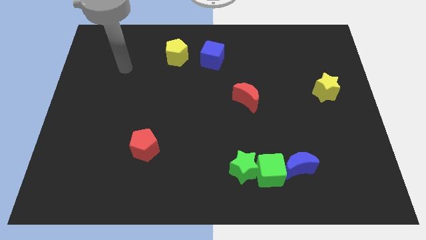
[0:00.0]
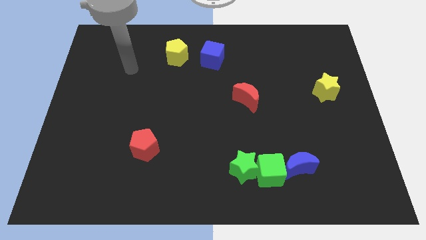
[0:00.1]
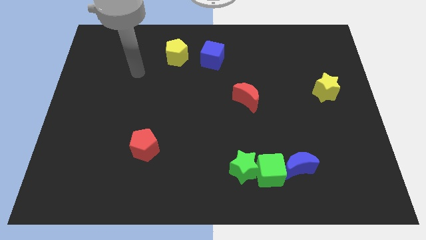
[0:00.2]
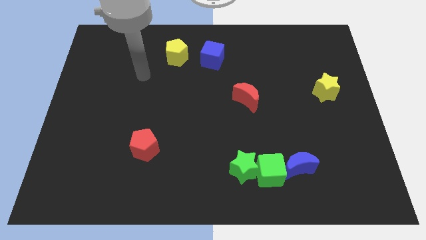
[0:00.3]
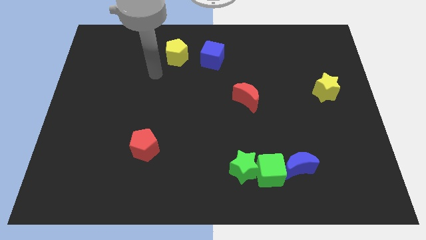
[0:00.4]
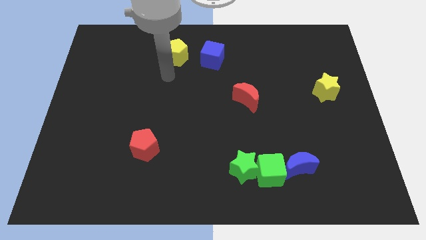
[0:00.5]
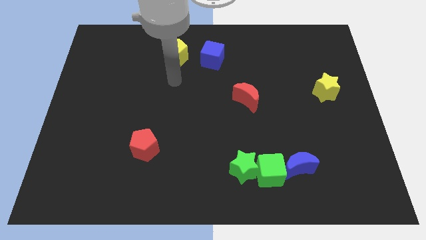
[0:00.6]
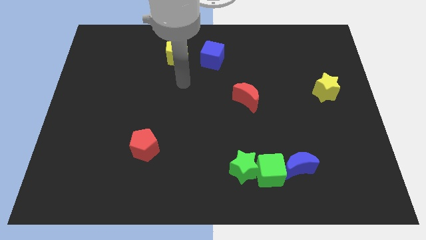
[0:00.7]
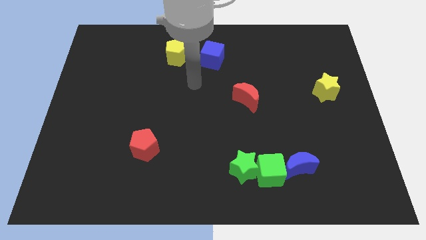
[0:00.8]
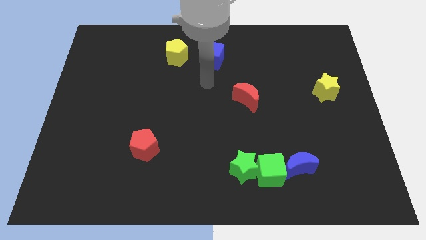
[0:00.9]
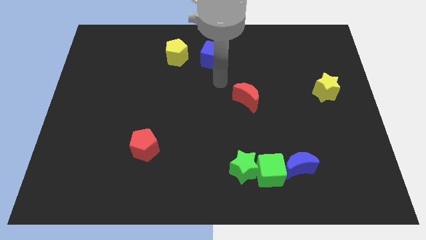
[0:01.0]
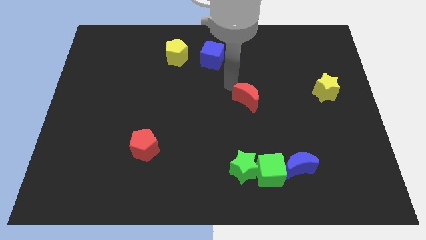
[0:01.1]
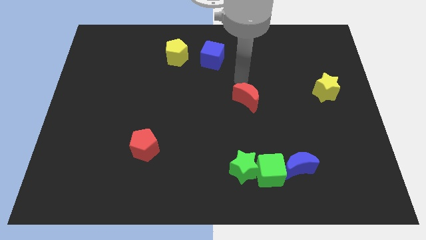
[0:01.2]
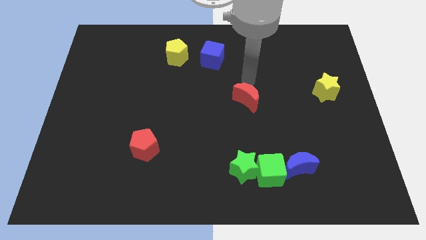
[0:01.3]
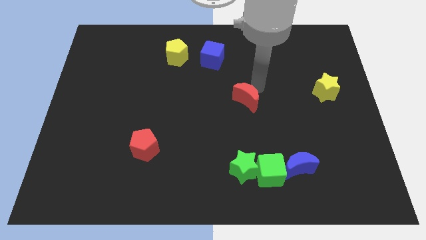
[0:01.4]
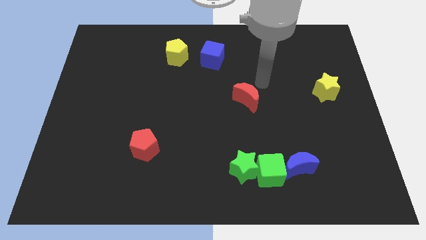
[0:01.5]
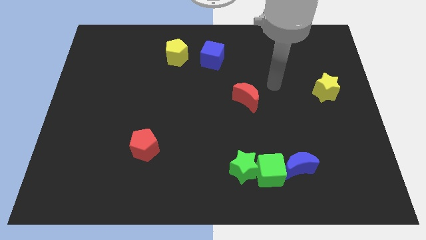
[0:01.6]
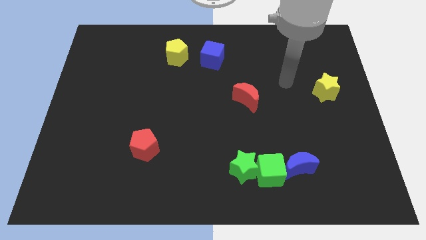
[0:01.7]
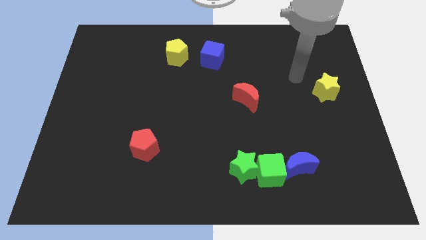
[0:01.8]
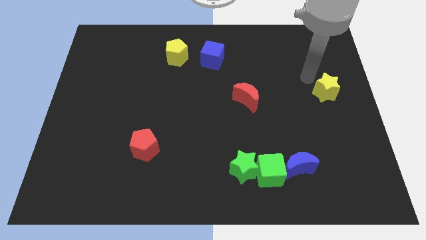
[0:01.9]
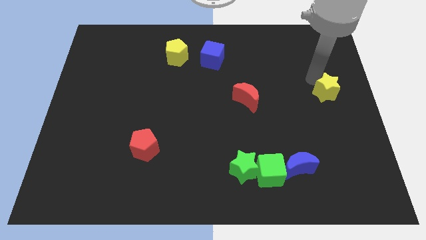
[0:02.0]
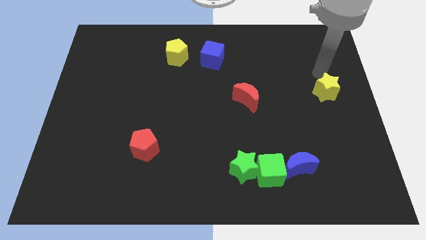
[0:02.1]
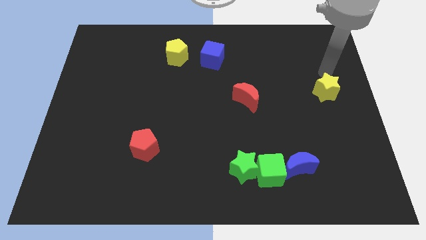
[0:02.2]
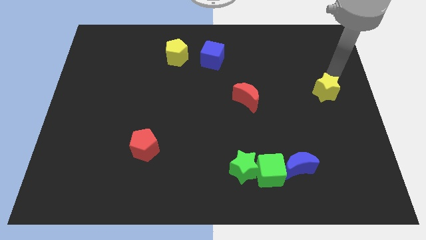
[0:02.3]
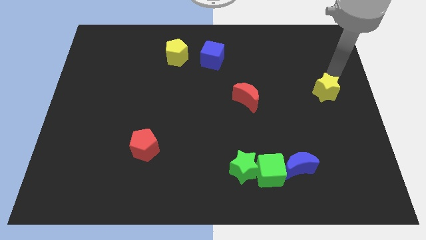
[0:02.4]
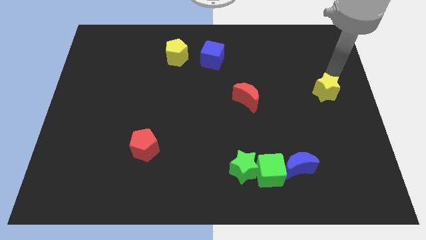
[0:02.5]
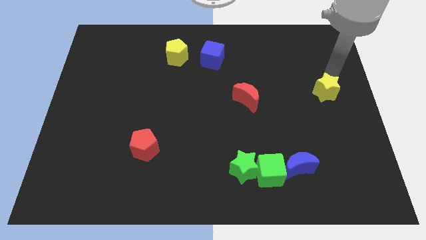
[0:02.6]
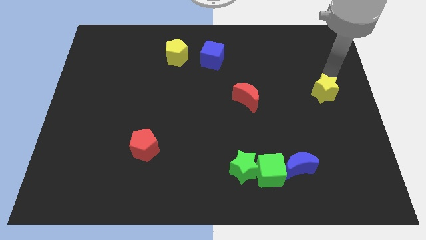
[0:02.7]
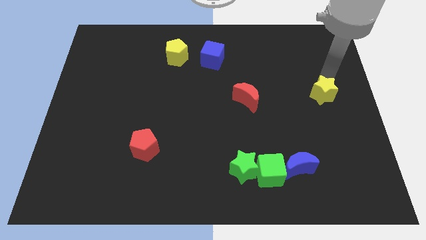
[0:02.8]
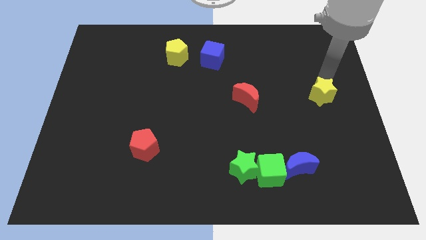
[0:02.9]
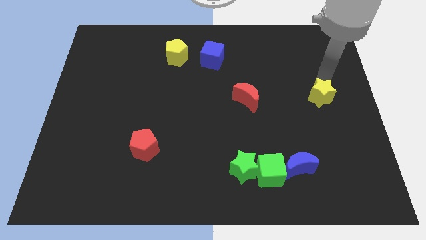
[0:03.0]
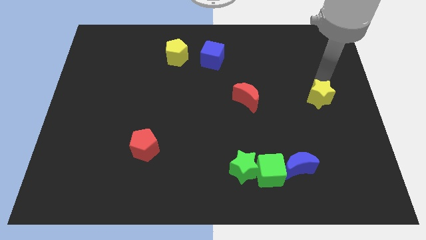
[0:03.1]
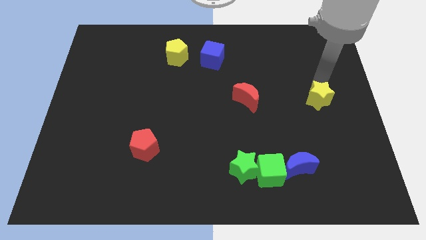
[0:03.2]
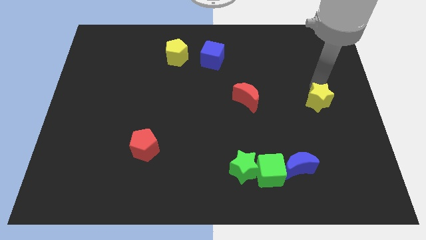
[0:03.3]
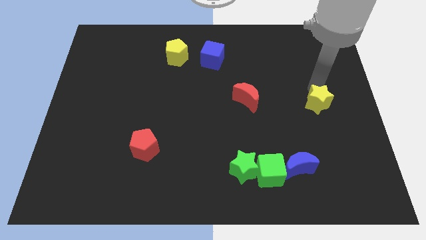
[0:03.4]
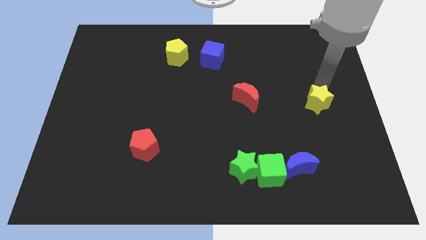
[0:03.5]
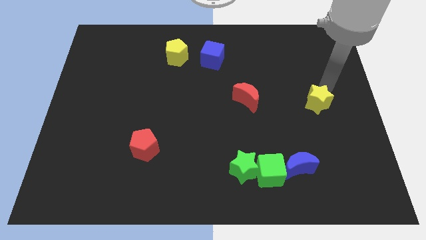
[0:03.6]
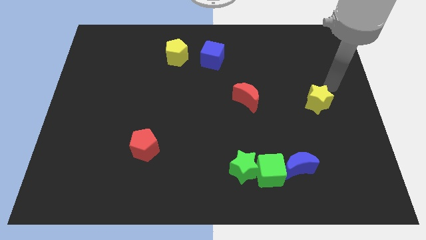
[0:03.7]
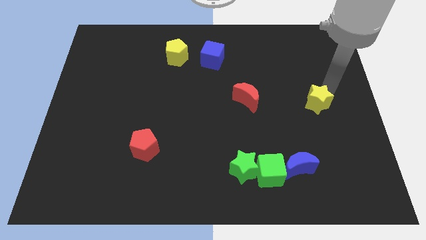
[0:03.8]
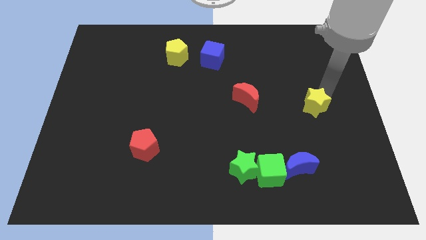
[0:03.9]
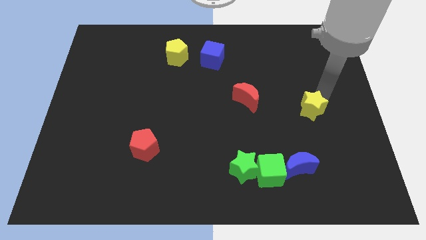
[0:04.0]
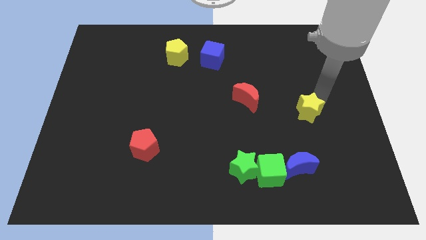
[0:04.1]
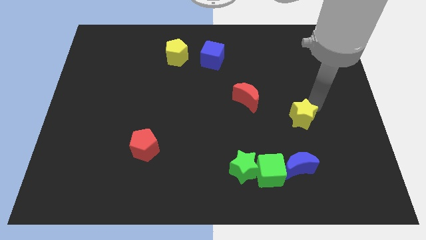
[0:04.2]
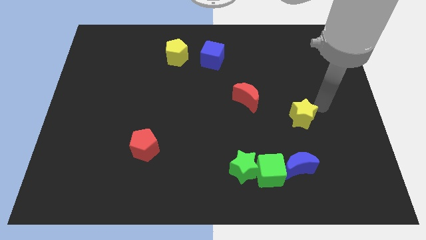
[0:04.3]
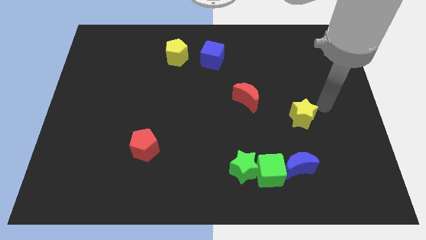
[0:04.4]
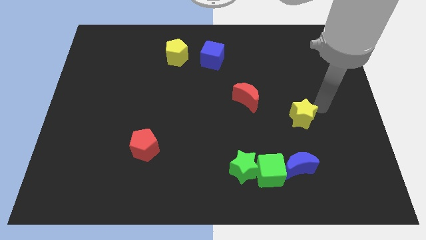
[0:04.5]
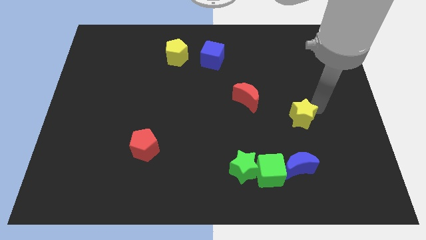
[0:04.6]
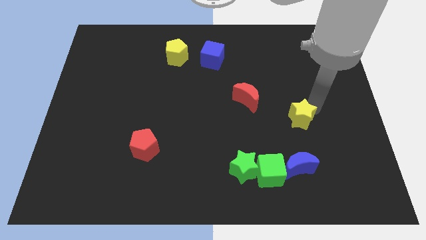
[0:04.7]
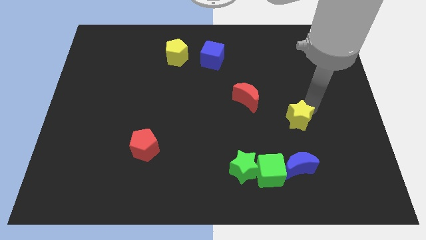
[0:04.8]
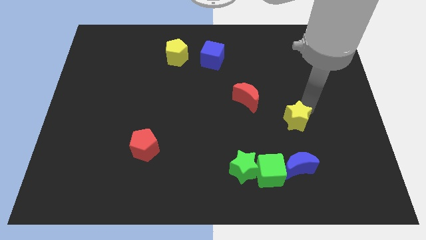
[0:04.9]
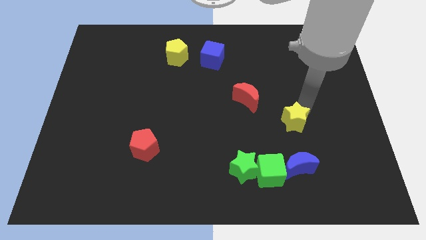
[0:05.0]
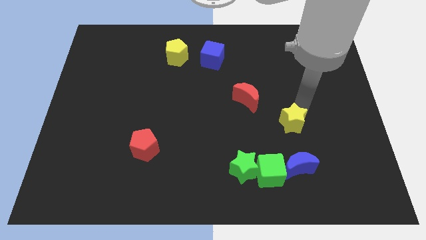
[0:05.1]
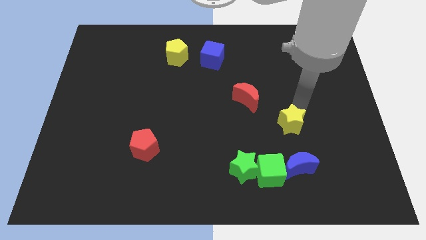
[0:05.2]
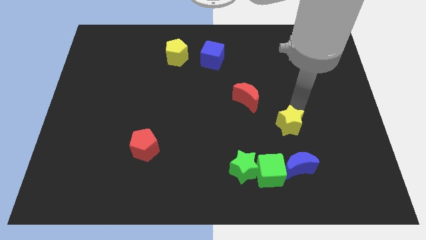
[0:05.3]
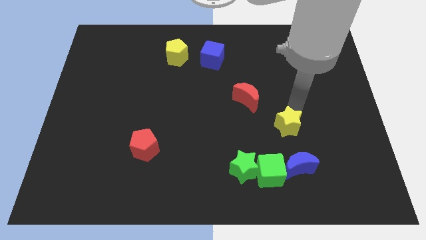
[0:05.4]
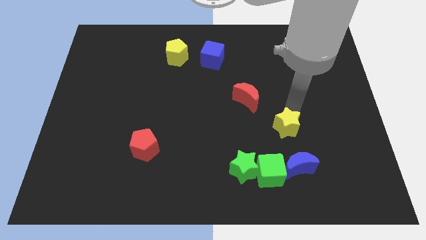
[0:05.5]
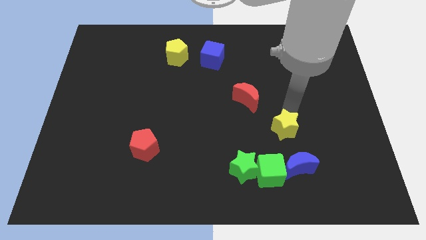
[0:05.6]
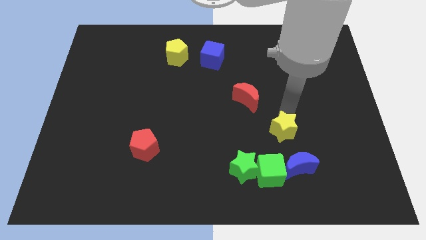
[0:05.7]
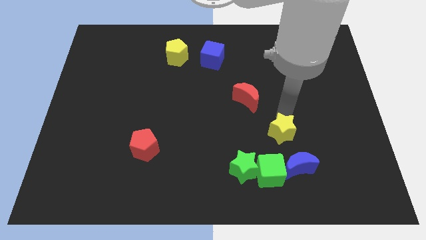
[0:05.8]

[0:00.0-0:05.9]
move the yellow star to the top right of the green star

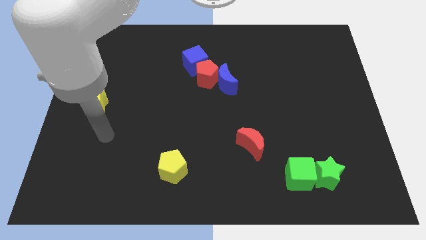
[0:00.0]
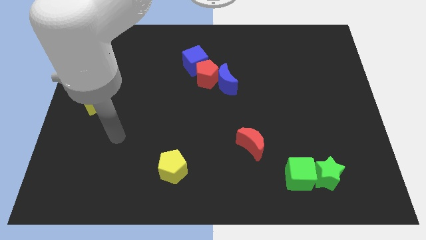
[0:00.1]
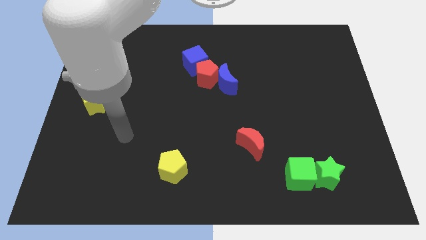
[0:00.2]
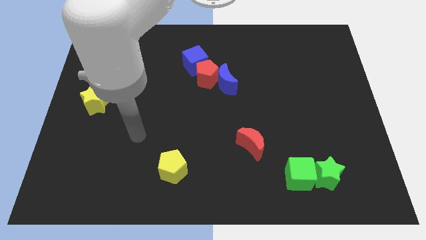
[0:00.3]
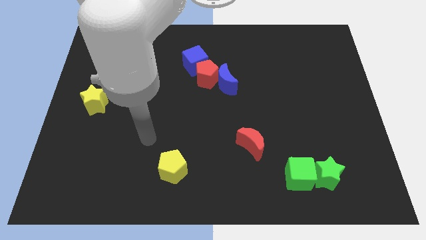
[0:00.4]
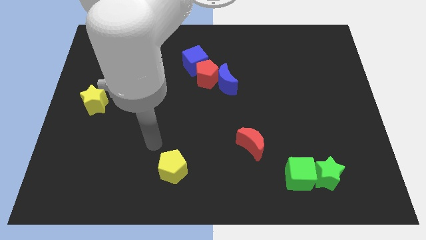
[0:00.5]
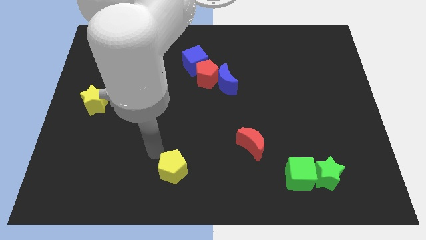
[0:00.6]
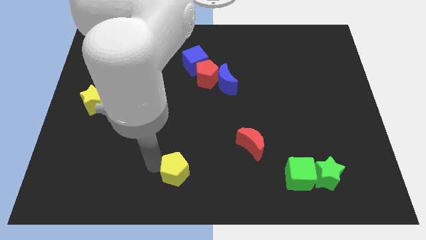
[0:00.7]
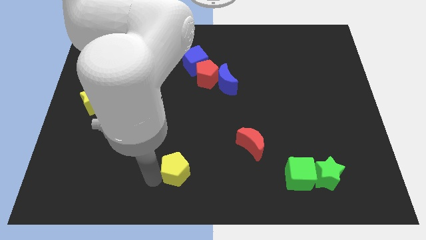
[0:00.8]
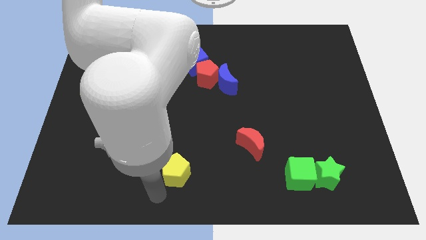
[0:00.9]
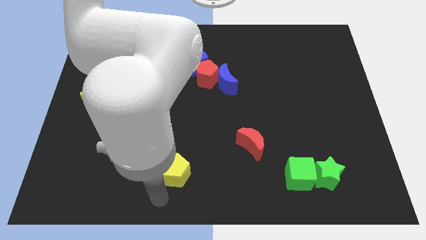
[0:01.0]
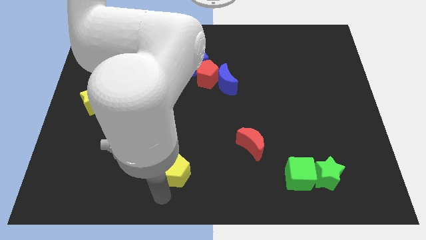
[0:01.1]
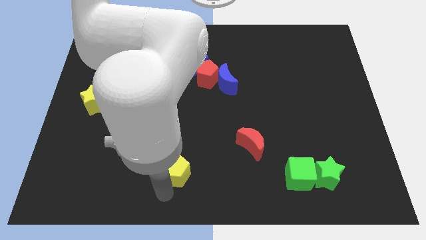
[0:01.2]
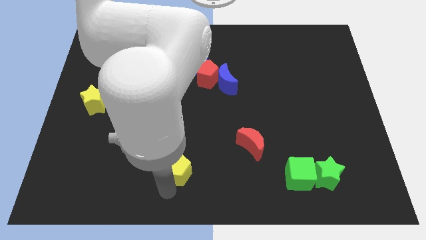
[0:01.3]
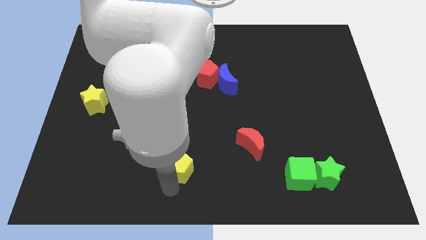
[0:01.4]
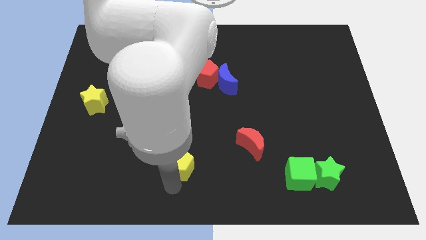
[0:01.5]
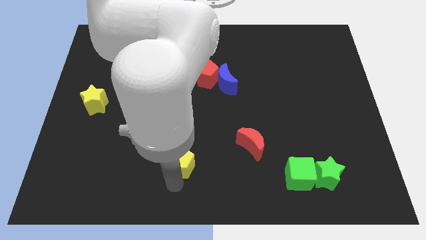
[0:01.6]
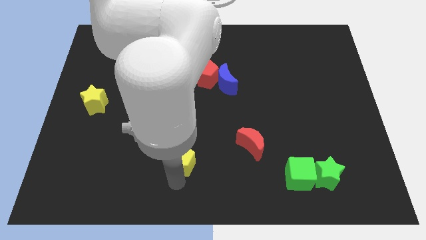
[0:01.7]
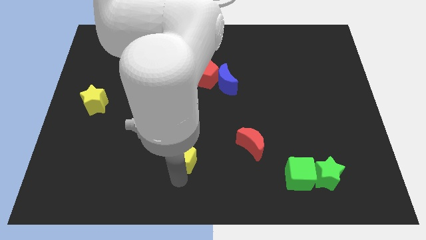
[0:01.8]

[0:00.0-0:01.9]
put the yellow pentagon to the left side of the red moon
